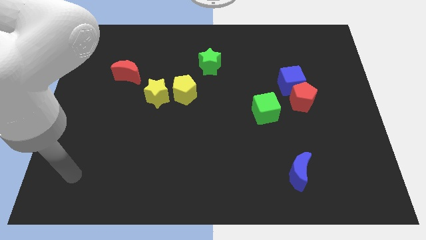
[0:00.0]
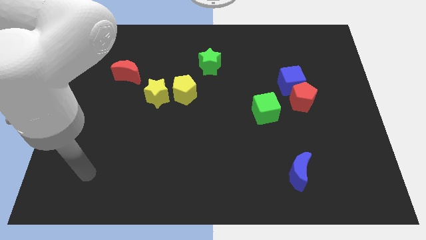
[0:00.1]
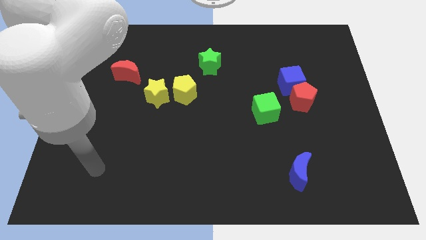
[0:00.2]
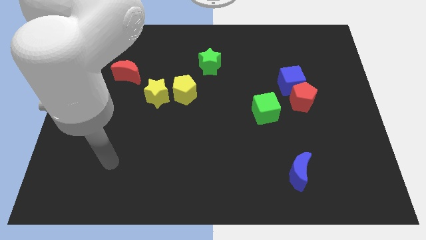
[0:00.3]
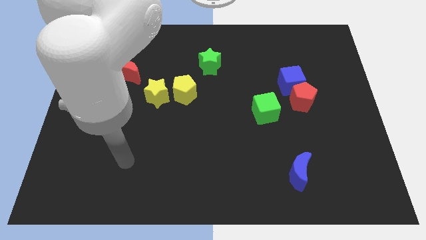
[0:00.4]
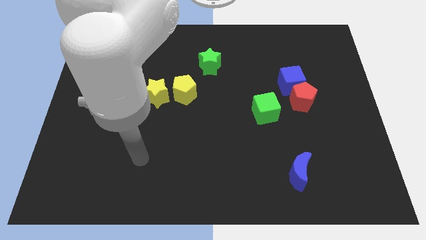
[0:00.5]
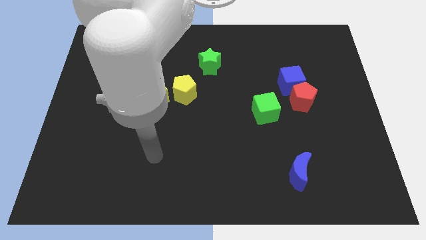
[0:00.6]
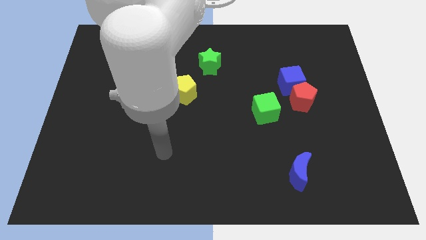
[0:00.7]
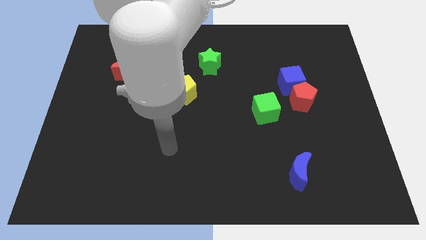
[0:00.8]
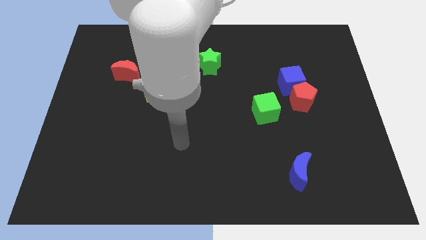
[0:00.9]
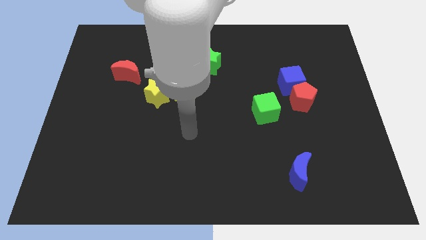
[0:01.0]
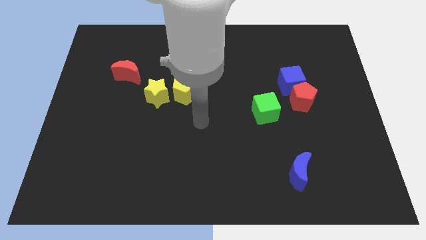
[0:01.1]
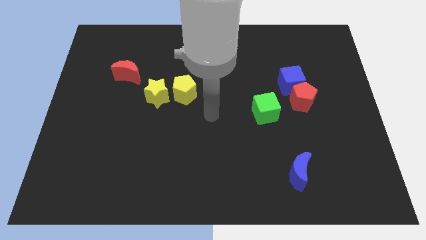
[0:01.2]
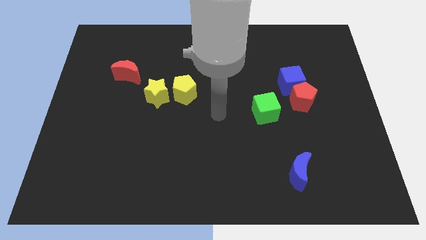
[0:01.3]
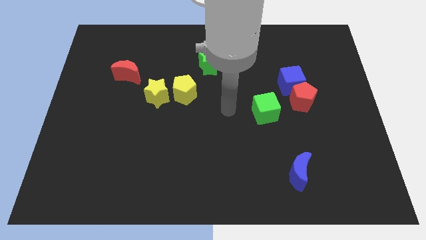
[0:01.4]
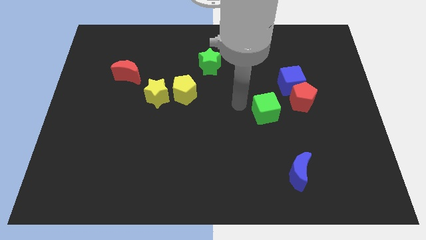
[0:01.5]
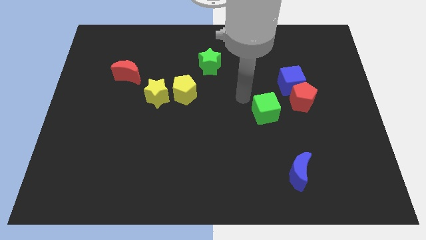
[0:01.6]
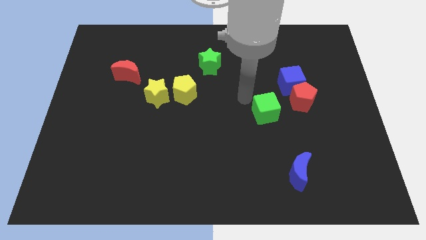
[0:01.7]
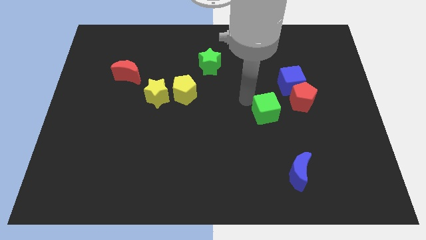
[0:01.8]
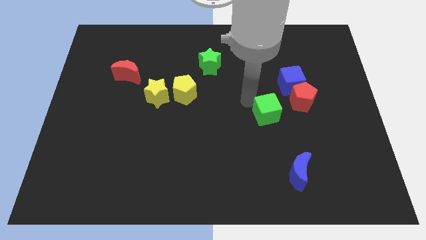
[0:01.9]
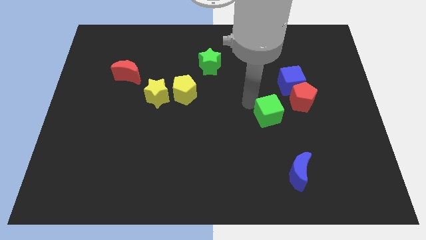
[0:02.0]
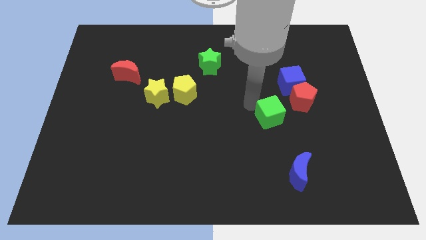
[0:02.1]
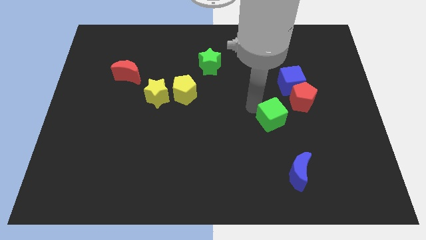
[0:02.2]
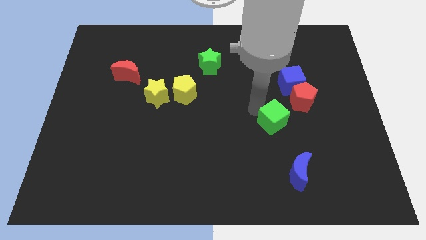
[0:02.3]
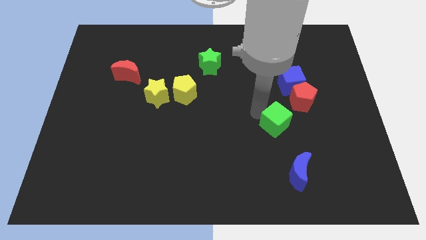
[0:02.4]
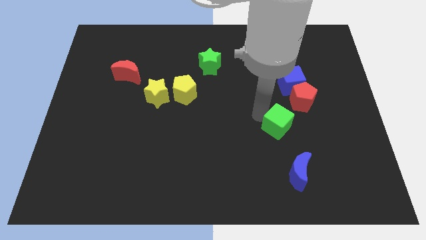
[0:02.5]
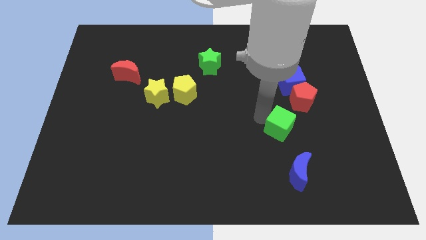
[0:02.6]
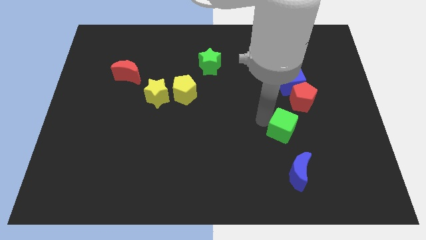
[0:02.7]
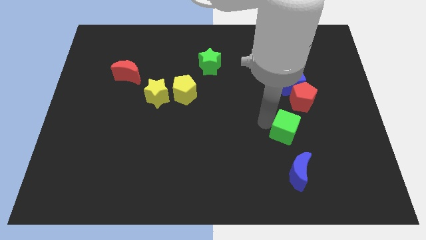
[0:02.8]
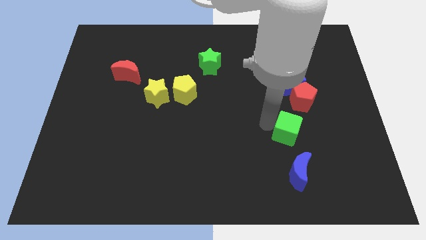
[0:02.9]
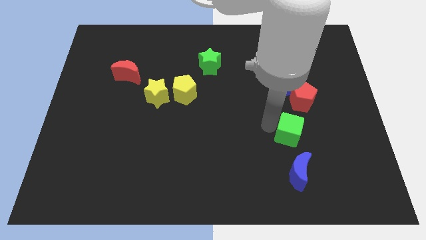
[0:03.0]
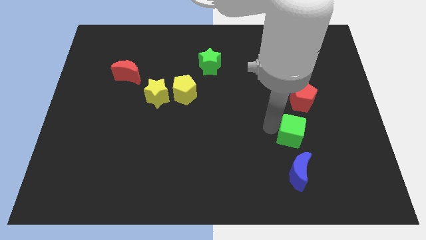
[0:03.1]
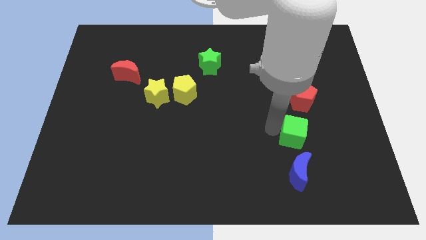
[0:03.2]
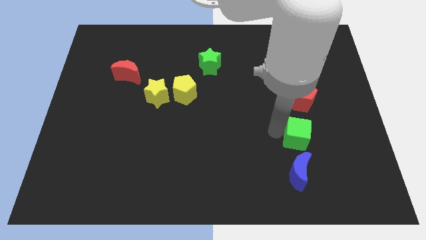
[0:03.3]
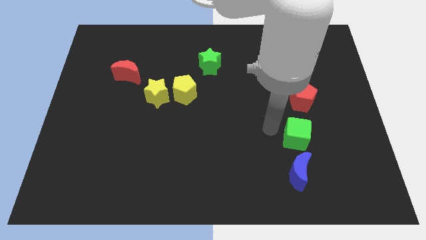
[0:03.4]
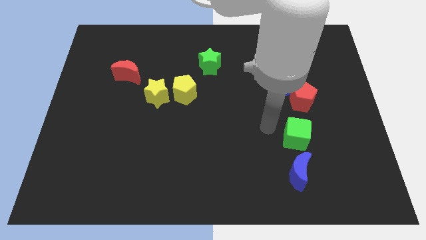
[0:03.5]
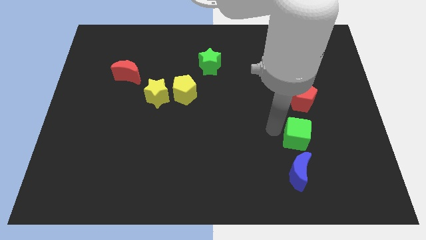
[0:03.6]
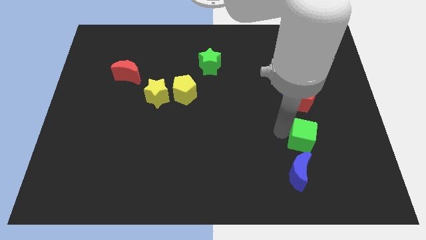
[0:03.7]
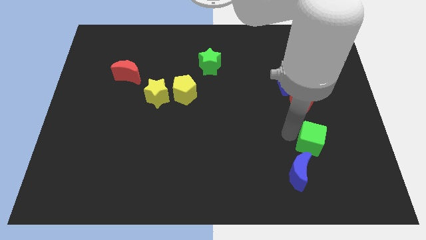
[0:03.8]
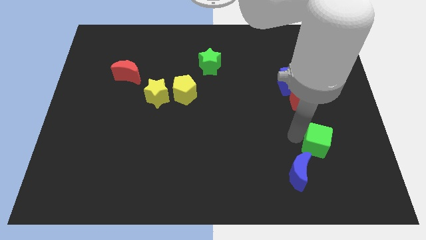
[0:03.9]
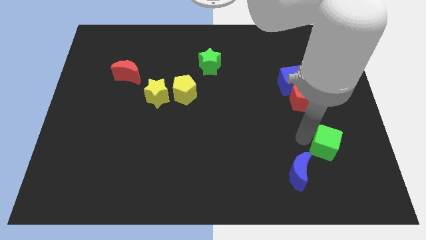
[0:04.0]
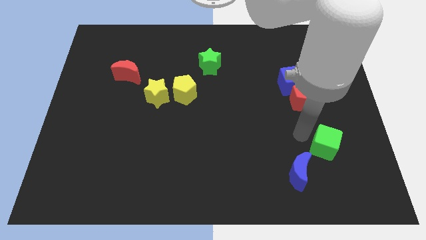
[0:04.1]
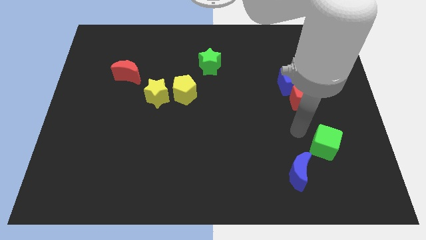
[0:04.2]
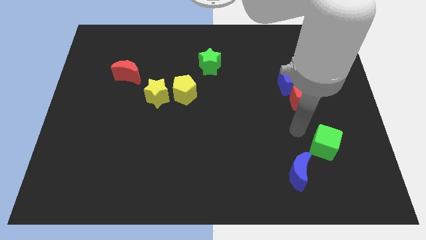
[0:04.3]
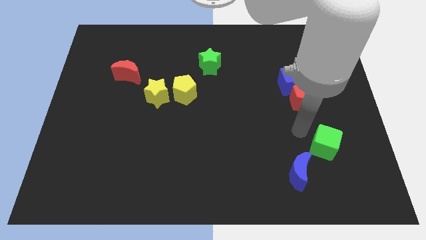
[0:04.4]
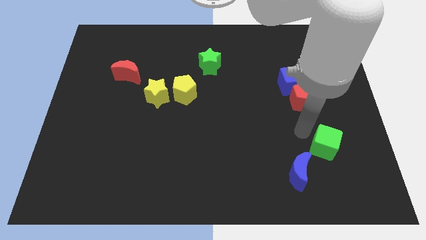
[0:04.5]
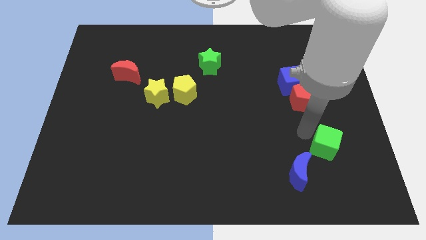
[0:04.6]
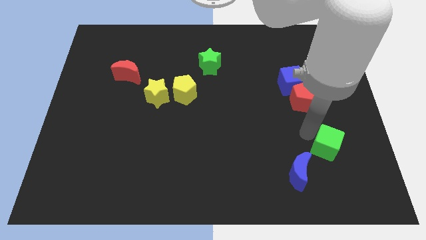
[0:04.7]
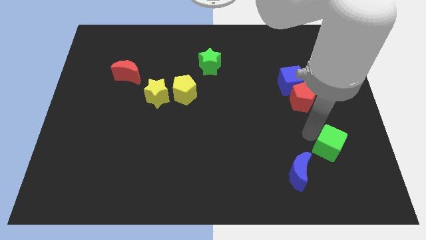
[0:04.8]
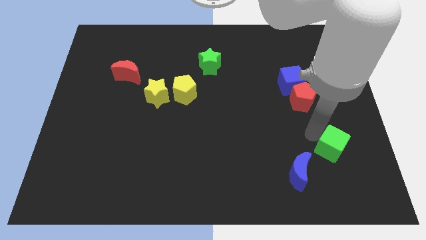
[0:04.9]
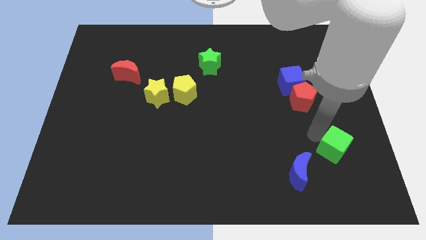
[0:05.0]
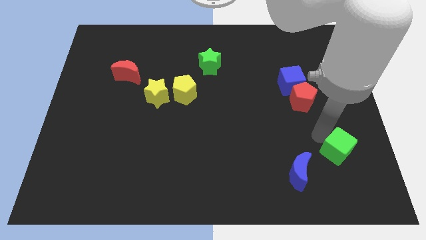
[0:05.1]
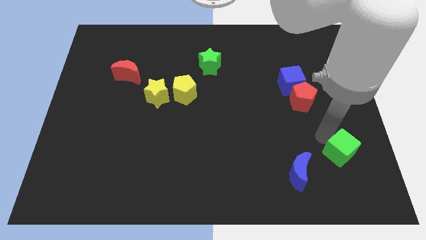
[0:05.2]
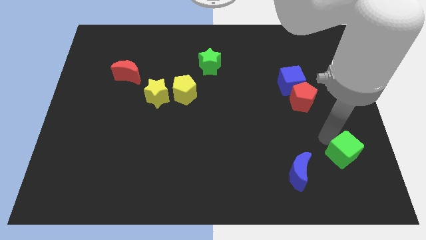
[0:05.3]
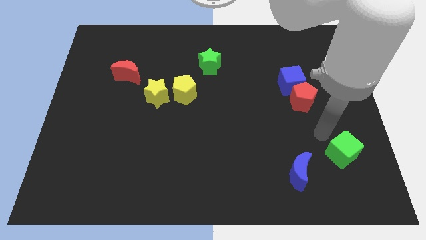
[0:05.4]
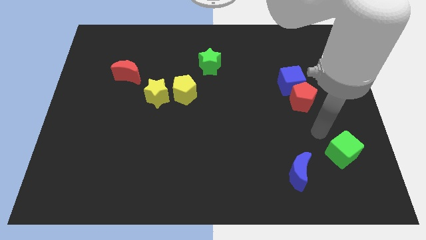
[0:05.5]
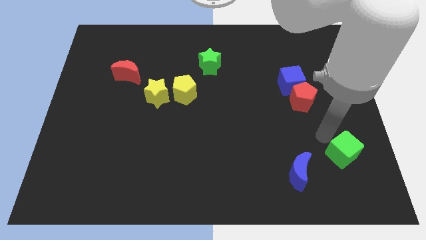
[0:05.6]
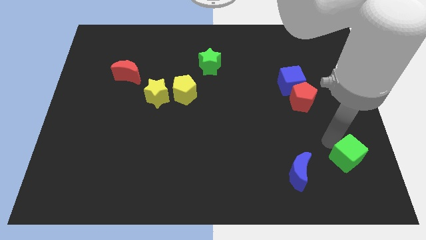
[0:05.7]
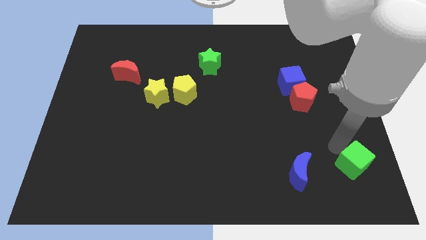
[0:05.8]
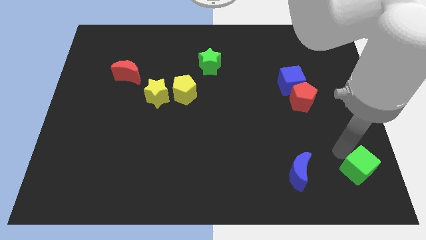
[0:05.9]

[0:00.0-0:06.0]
slide the green cube to the bottom right
